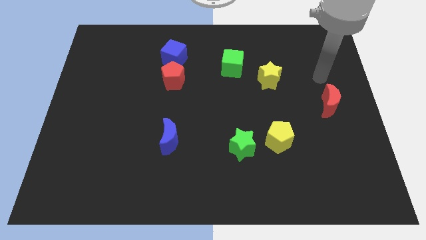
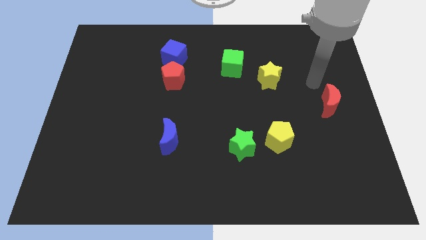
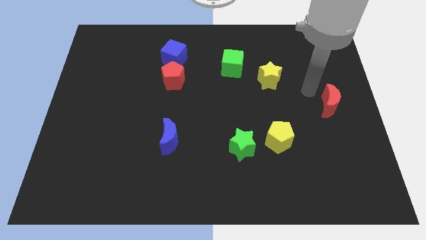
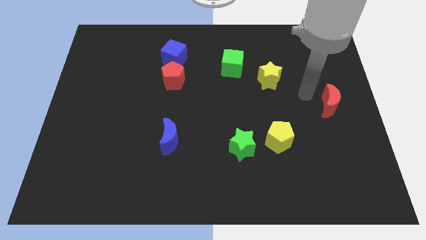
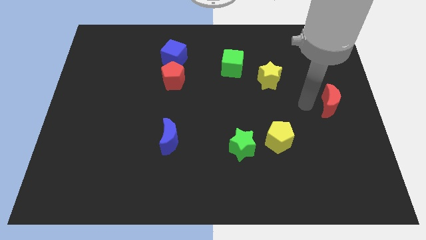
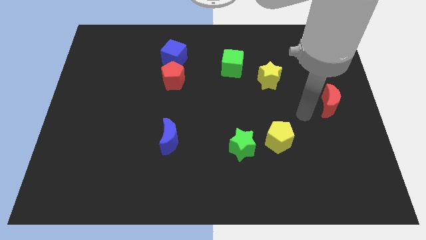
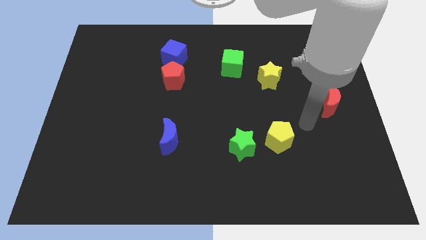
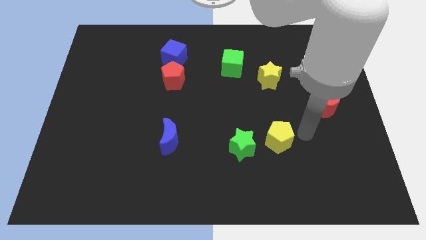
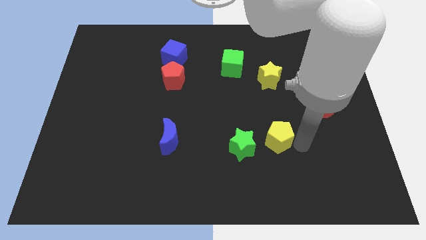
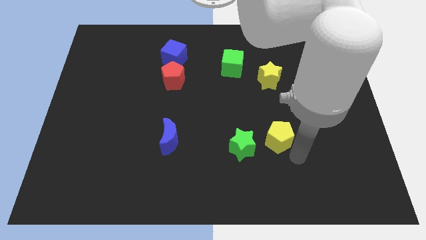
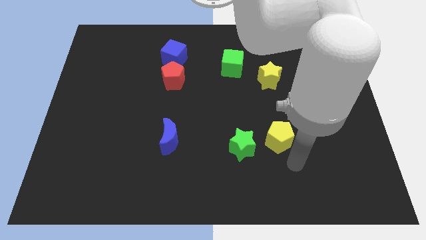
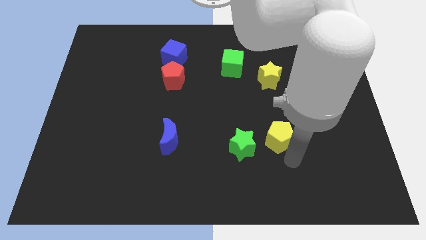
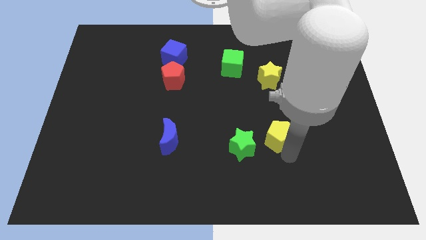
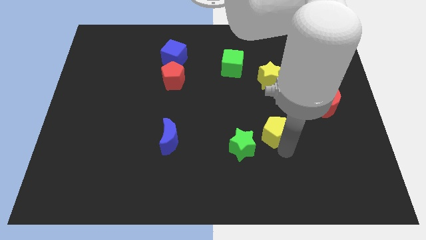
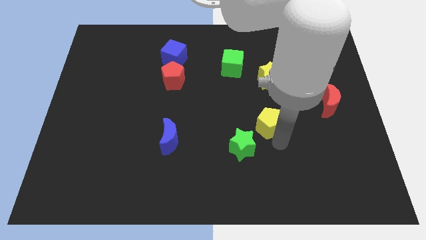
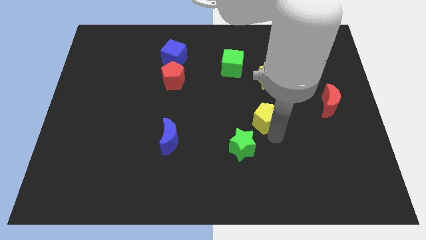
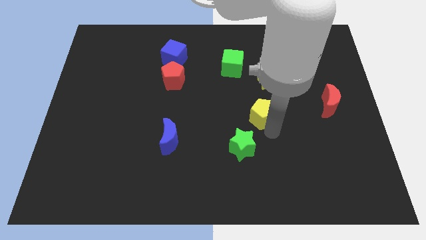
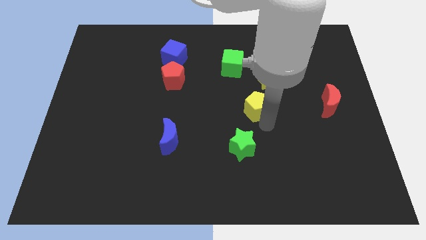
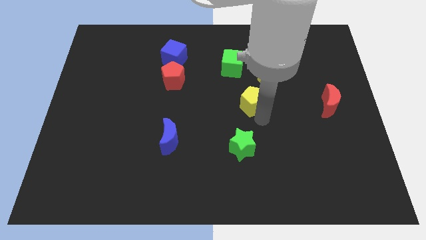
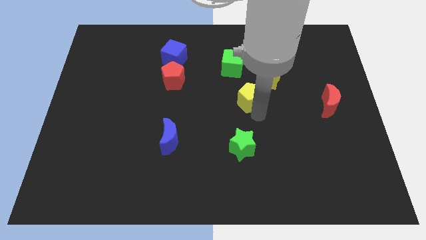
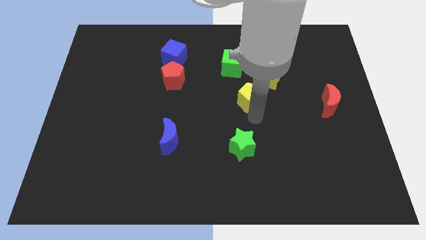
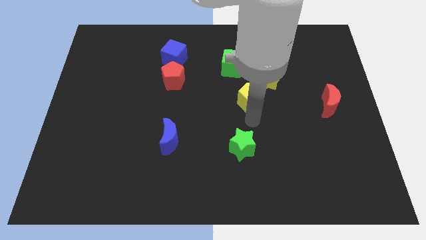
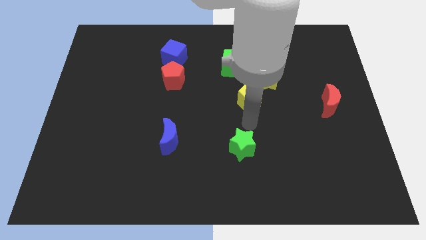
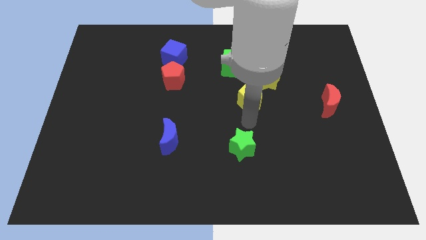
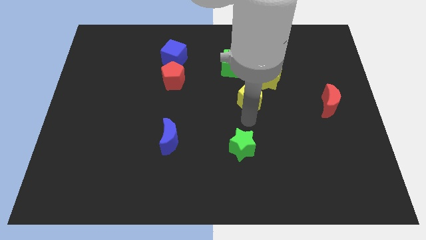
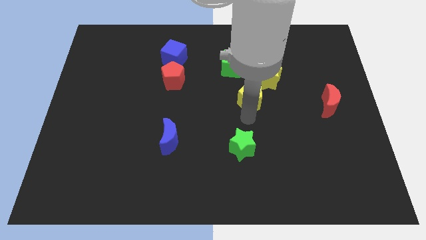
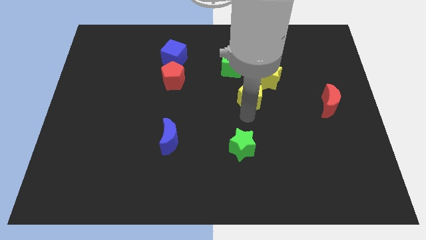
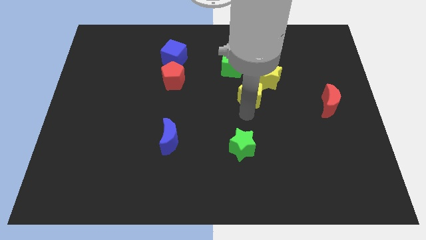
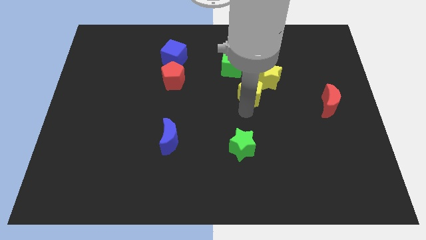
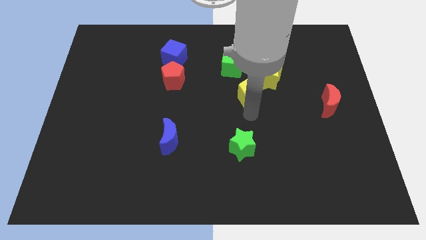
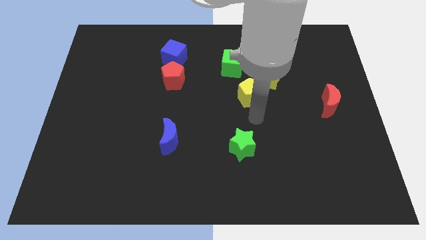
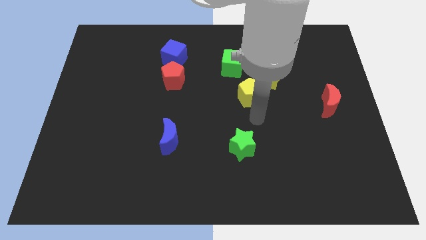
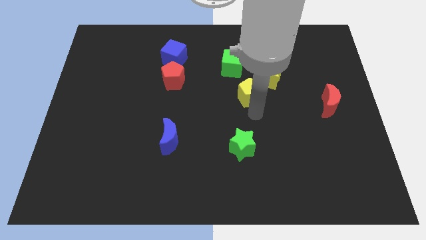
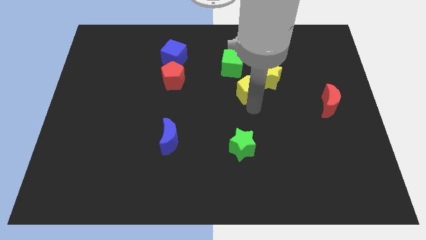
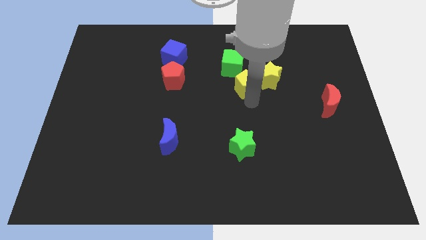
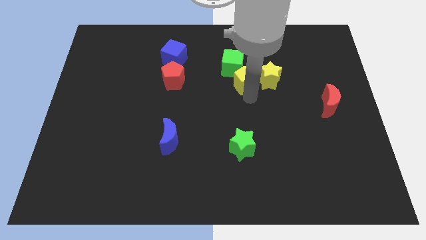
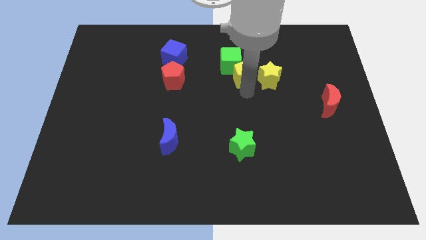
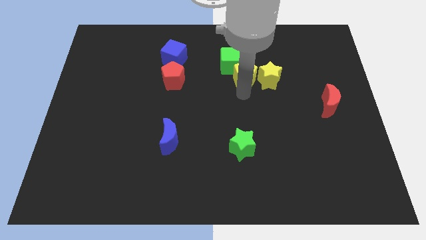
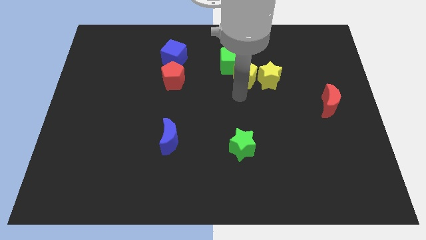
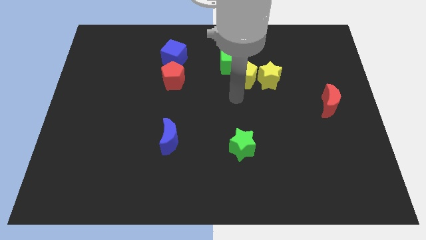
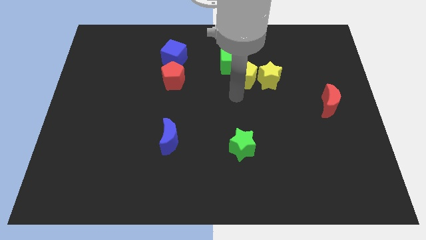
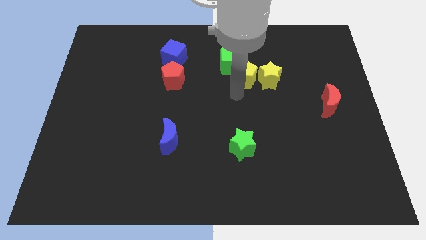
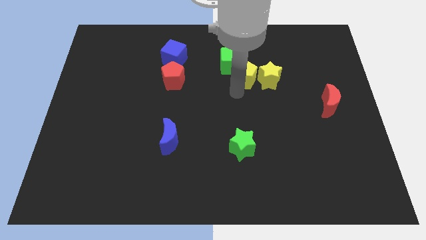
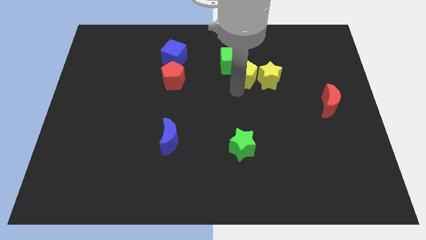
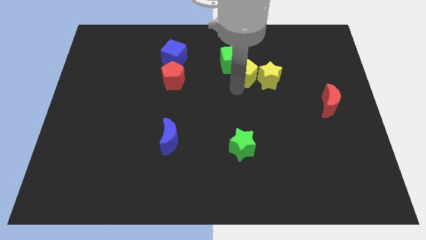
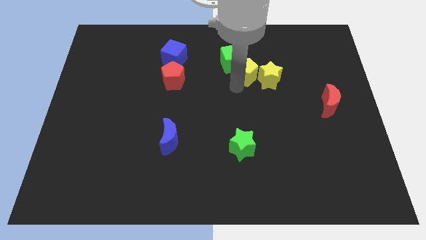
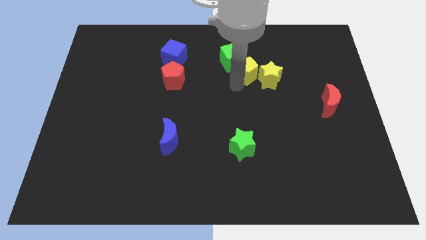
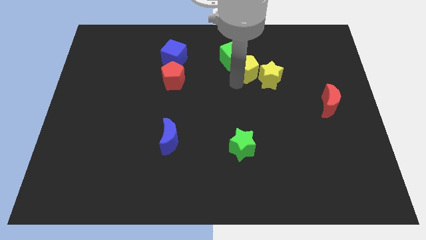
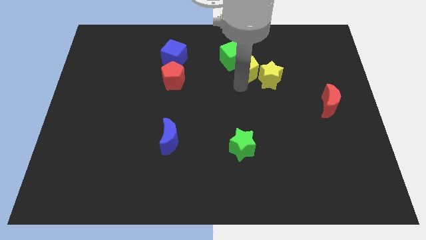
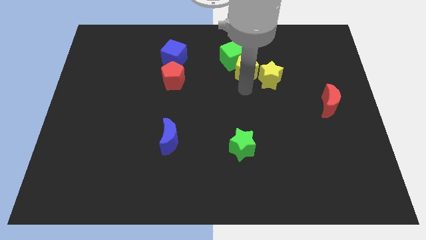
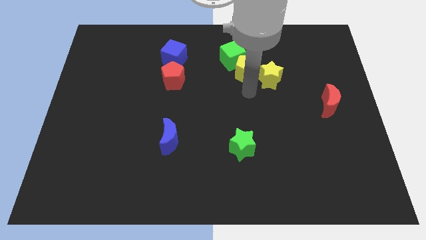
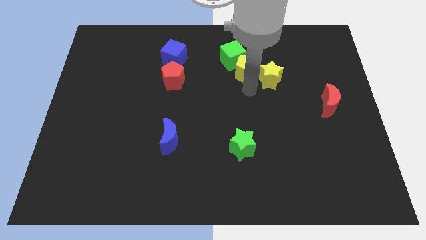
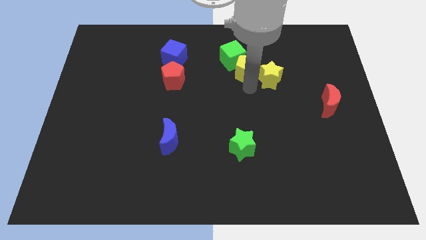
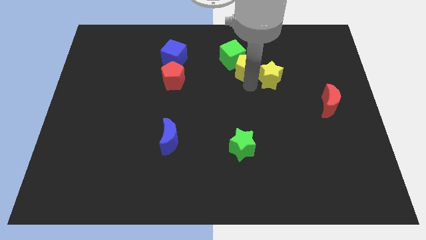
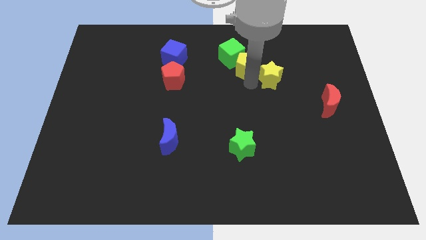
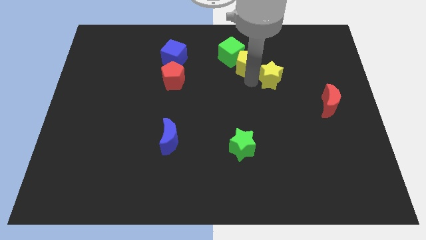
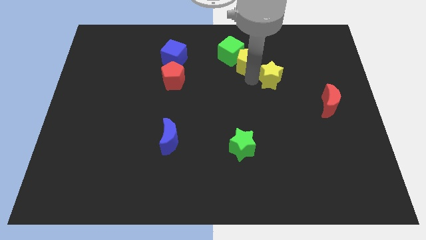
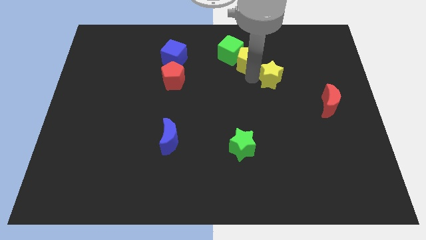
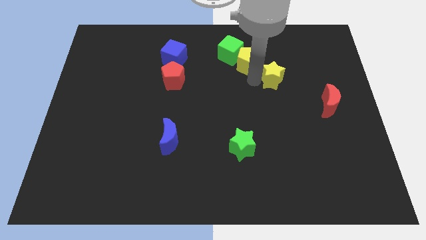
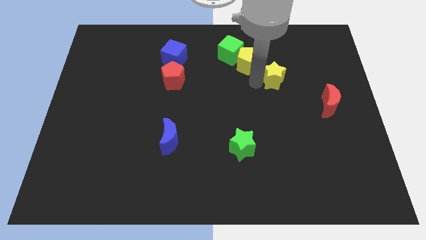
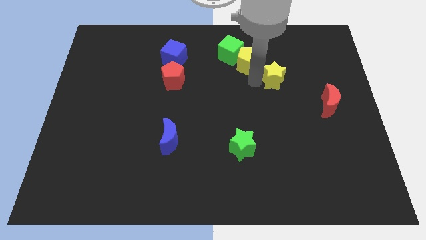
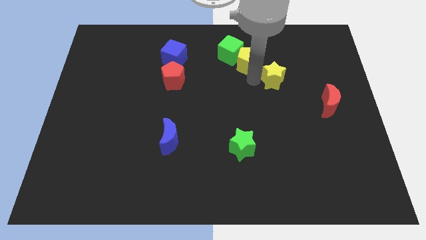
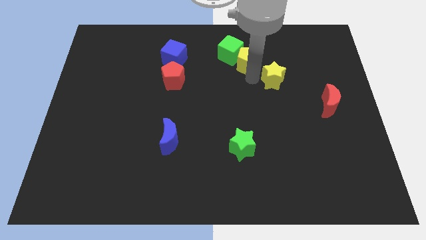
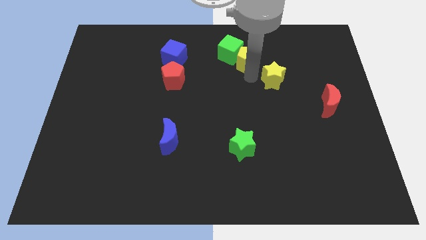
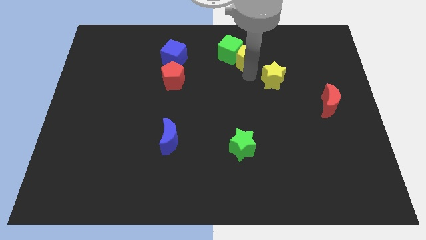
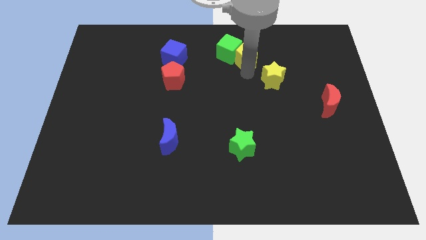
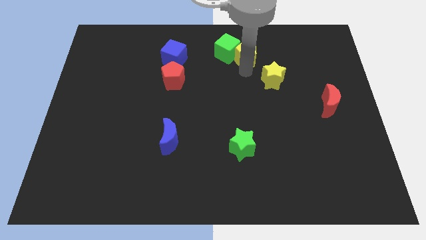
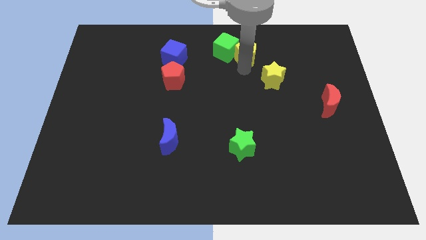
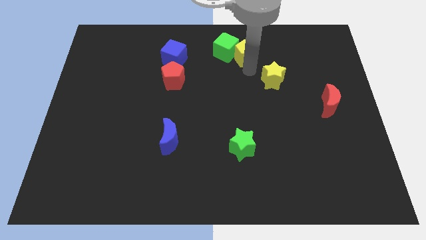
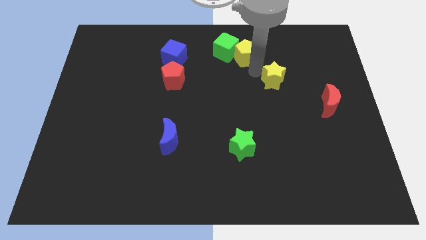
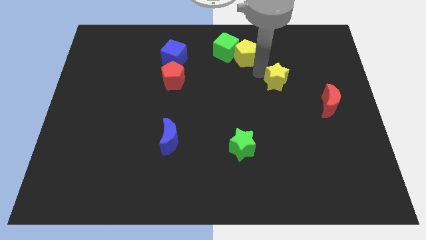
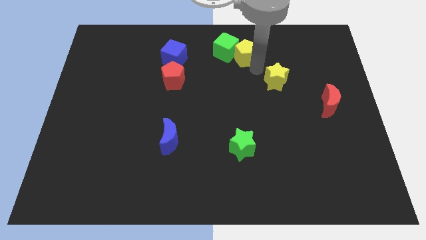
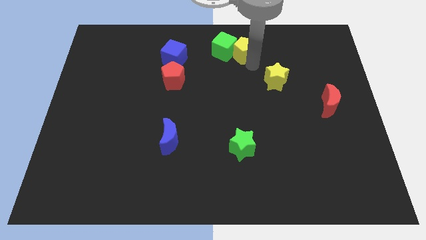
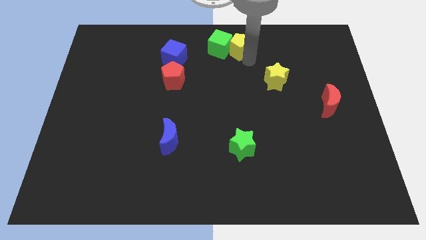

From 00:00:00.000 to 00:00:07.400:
put the yellow pentagon to the top side
